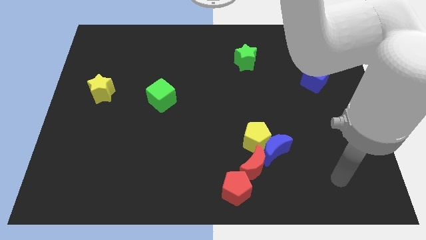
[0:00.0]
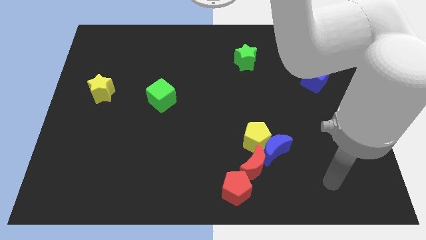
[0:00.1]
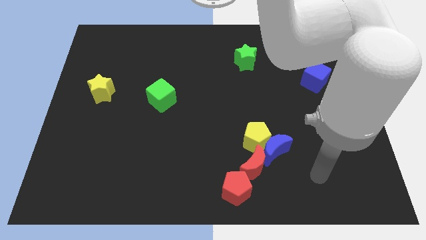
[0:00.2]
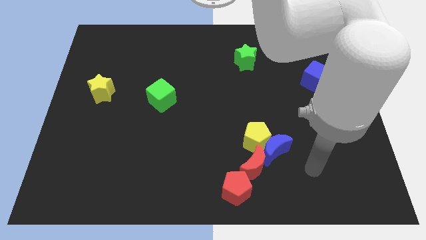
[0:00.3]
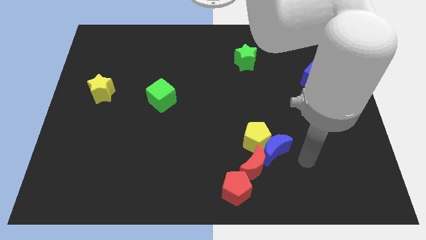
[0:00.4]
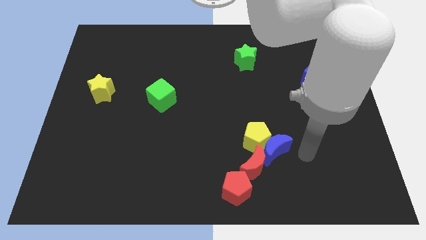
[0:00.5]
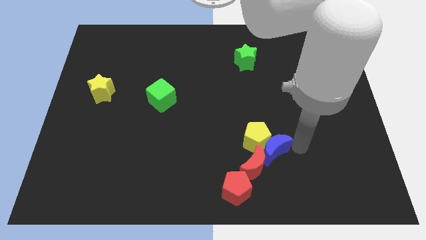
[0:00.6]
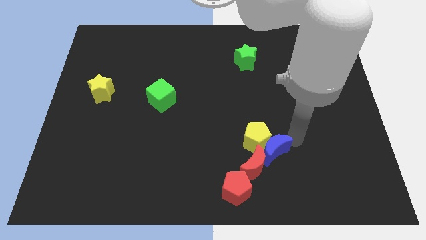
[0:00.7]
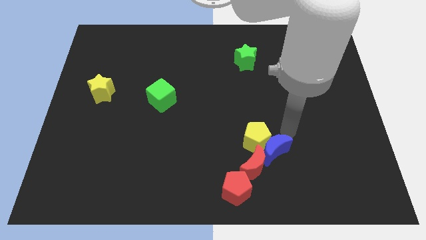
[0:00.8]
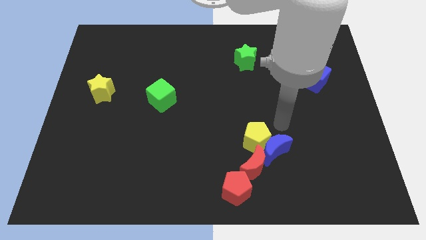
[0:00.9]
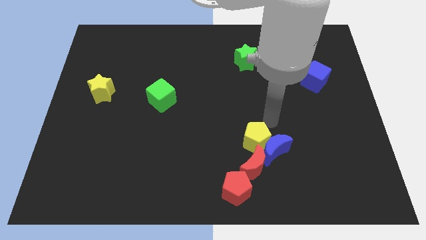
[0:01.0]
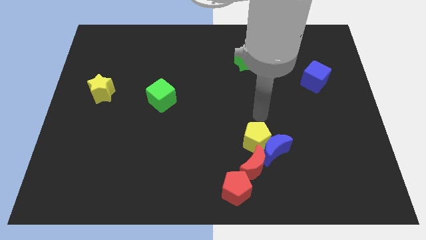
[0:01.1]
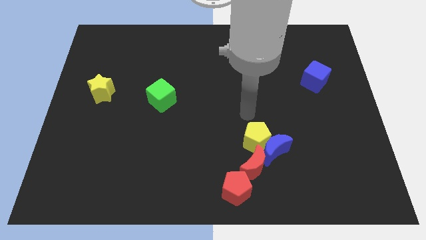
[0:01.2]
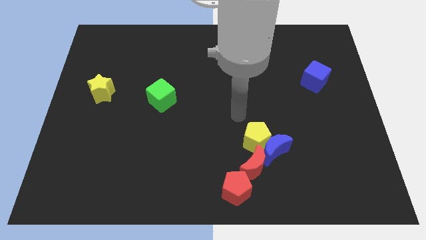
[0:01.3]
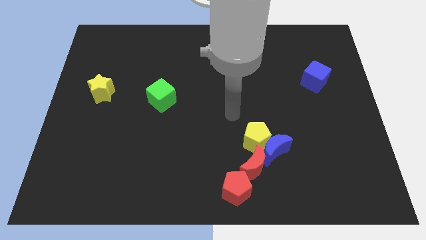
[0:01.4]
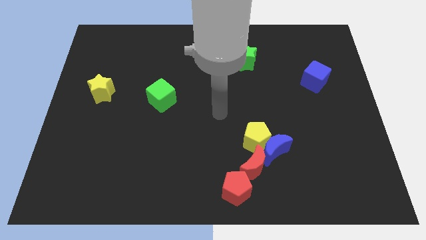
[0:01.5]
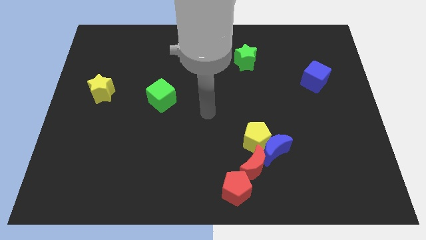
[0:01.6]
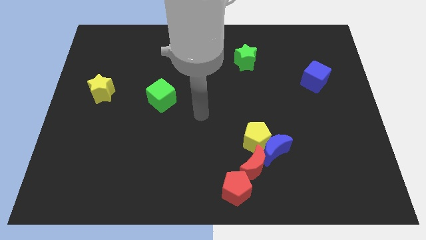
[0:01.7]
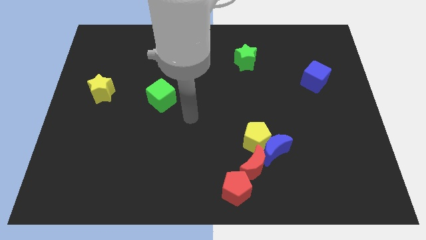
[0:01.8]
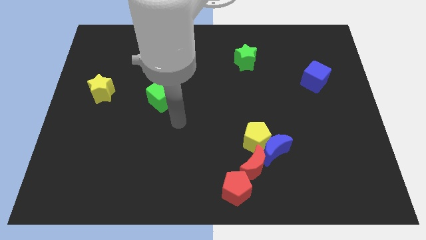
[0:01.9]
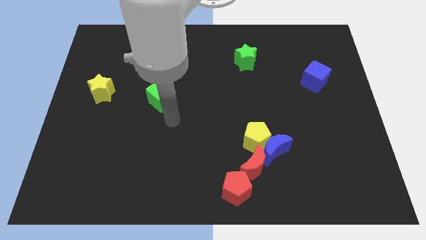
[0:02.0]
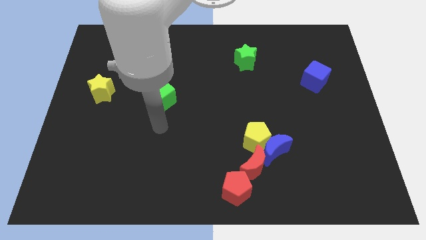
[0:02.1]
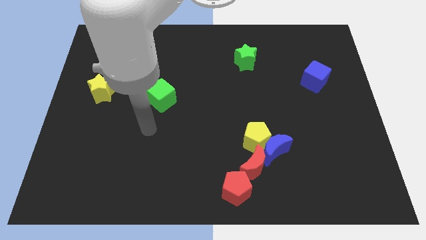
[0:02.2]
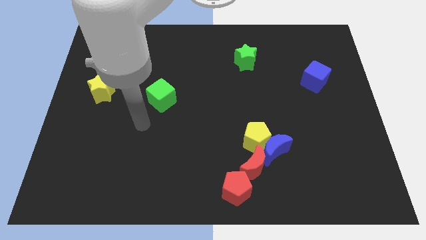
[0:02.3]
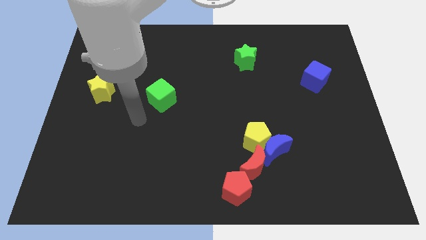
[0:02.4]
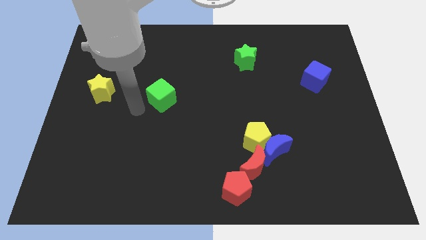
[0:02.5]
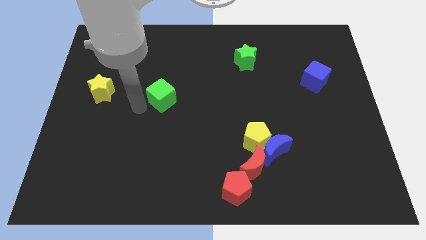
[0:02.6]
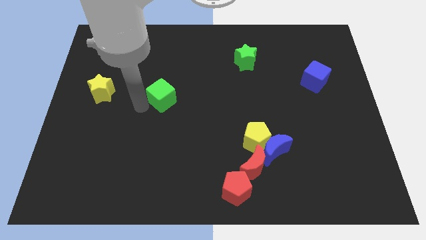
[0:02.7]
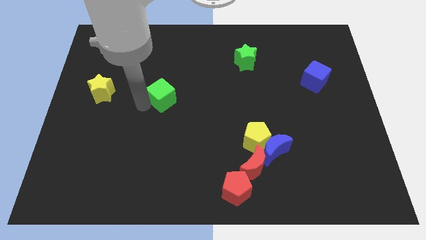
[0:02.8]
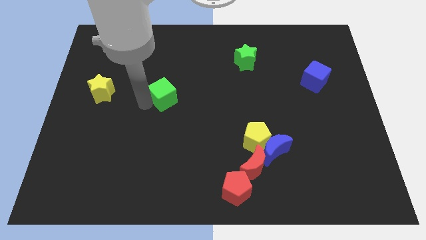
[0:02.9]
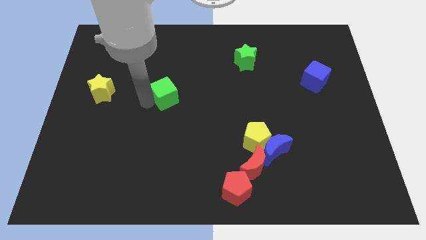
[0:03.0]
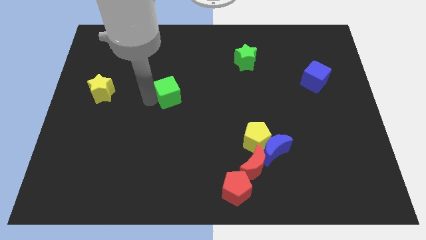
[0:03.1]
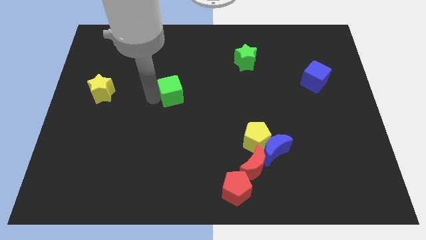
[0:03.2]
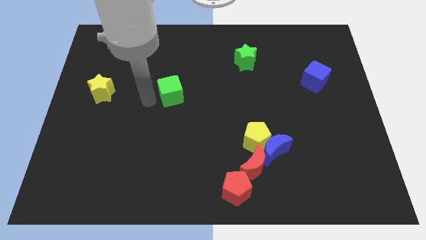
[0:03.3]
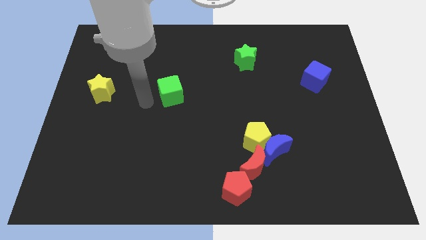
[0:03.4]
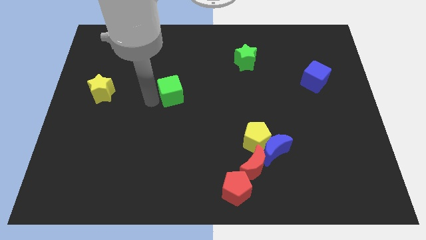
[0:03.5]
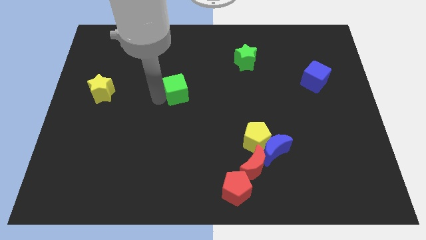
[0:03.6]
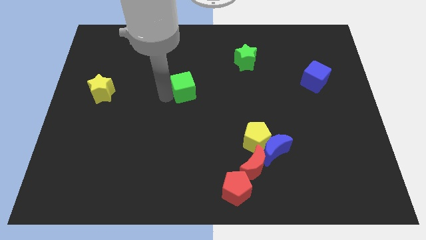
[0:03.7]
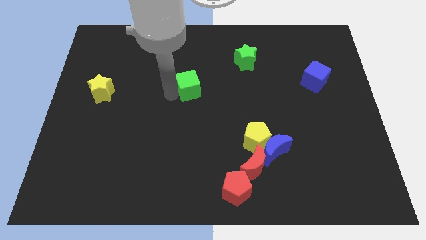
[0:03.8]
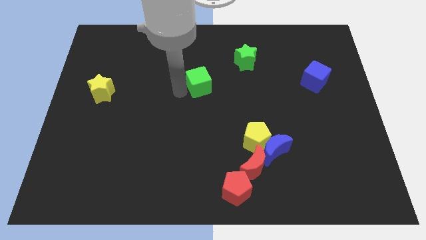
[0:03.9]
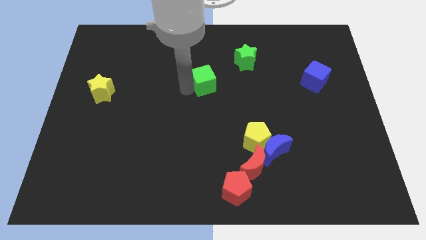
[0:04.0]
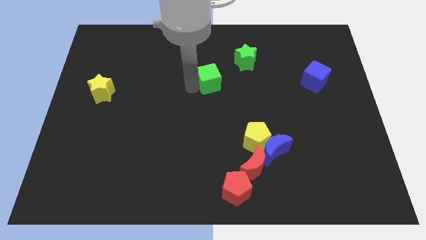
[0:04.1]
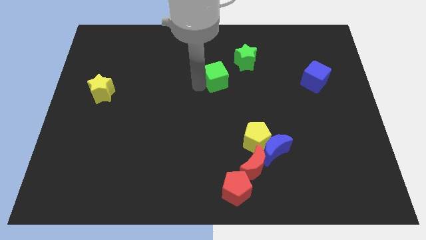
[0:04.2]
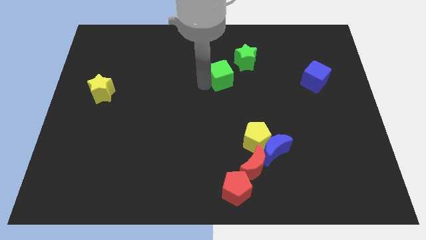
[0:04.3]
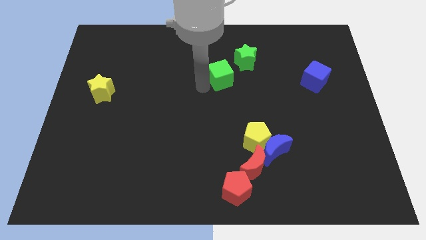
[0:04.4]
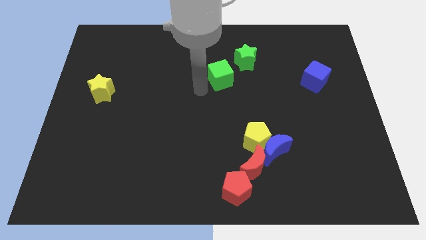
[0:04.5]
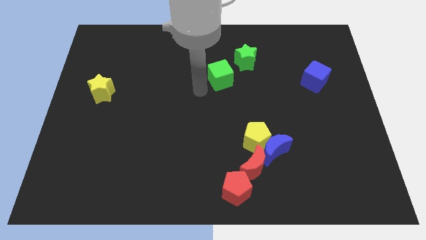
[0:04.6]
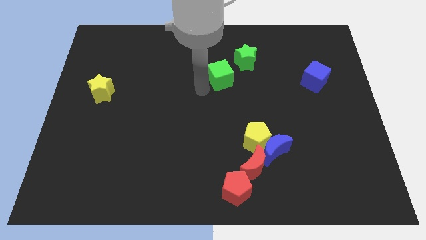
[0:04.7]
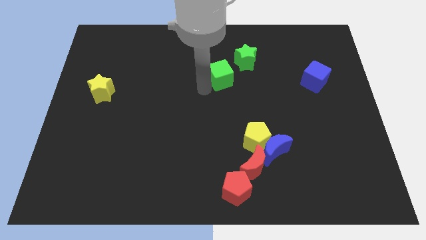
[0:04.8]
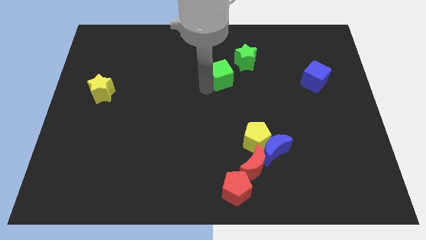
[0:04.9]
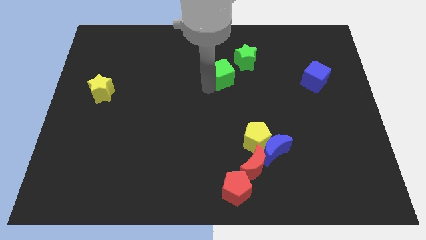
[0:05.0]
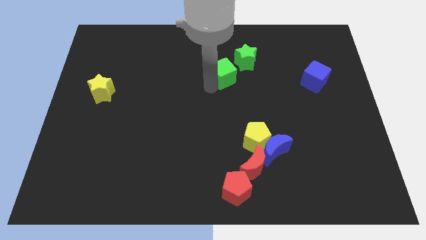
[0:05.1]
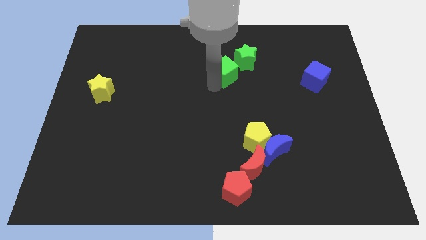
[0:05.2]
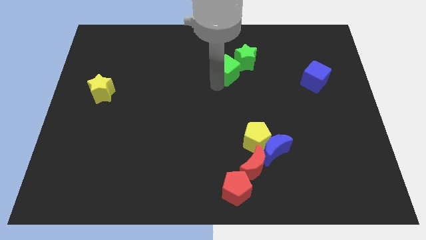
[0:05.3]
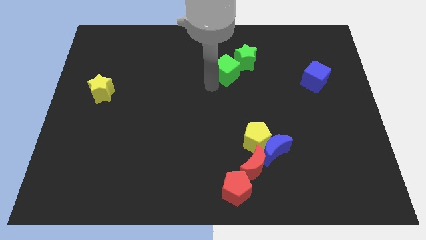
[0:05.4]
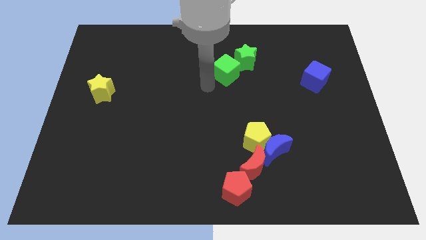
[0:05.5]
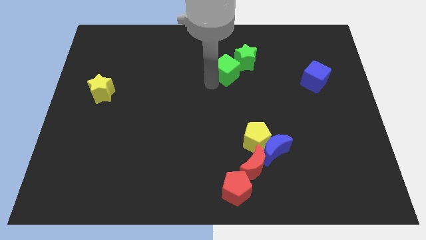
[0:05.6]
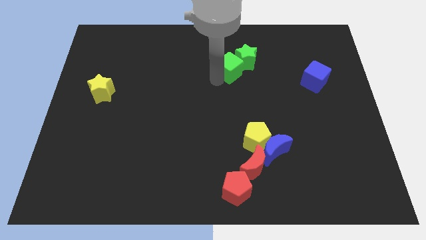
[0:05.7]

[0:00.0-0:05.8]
put the green cube towards the green star

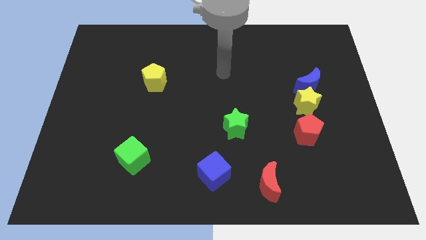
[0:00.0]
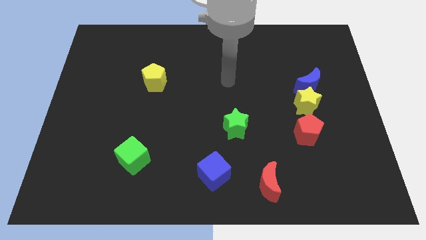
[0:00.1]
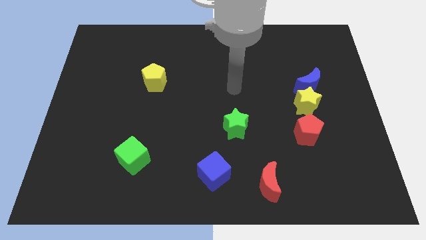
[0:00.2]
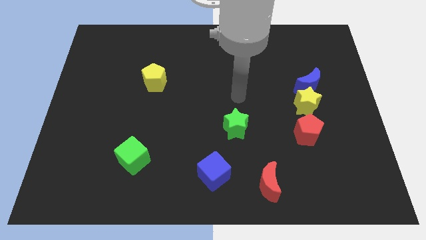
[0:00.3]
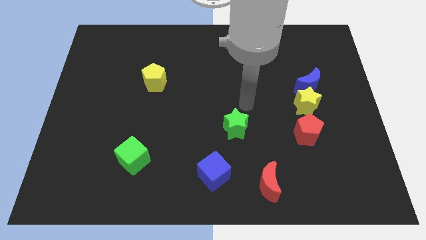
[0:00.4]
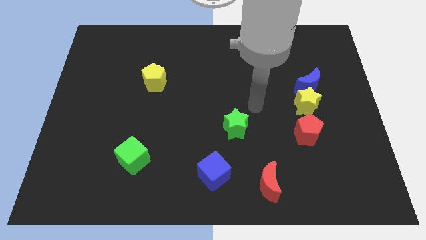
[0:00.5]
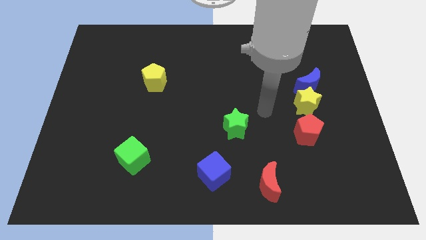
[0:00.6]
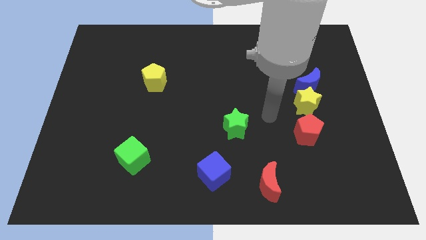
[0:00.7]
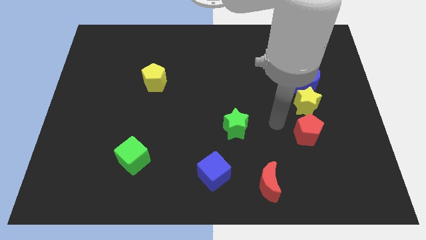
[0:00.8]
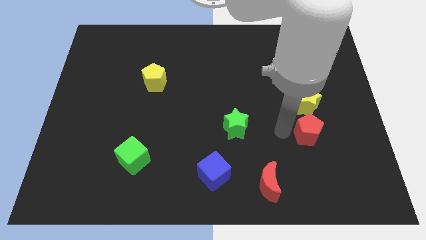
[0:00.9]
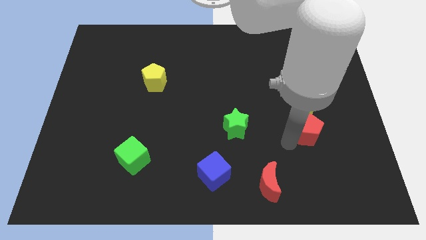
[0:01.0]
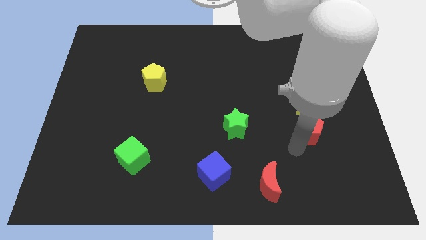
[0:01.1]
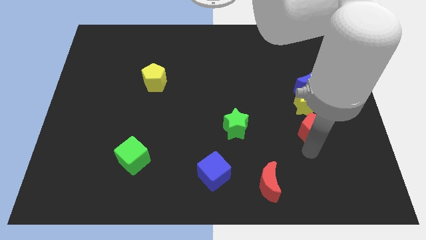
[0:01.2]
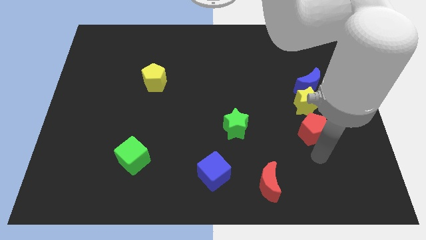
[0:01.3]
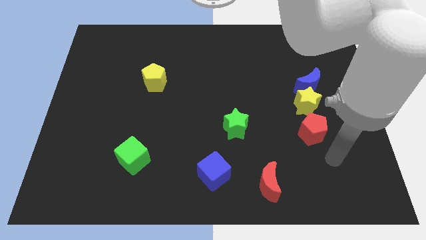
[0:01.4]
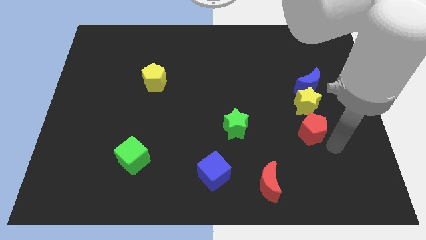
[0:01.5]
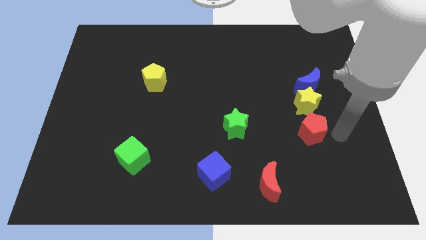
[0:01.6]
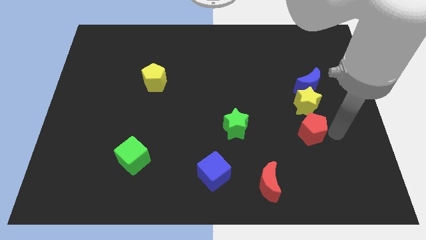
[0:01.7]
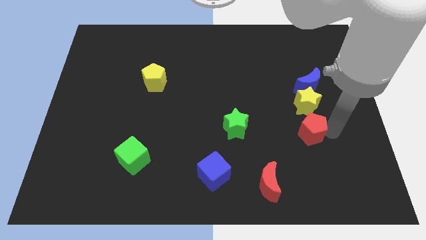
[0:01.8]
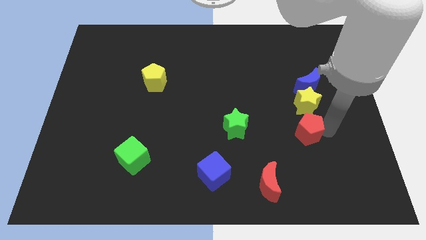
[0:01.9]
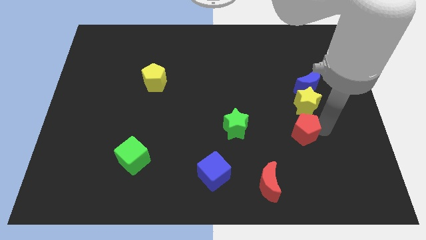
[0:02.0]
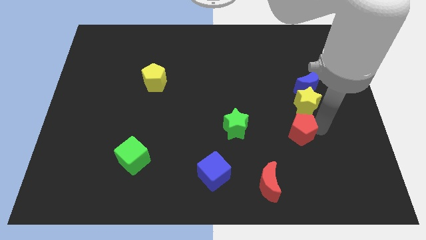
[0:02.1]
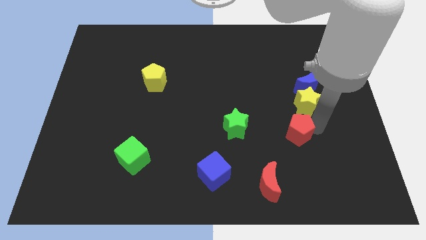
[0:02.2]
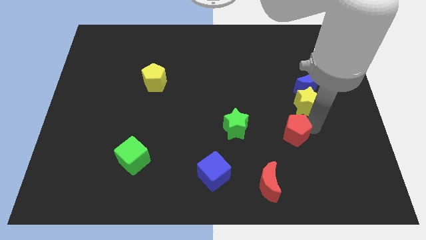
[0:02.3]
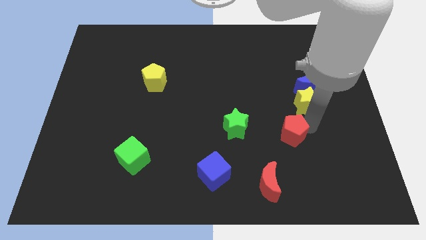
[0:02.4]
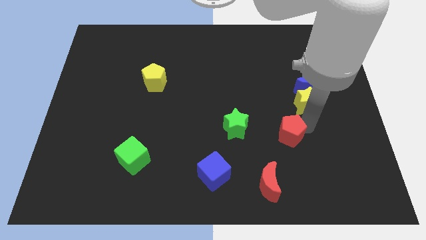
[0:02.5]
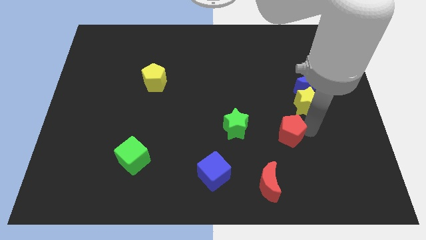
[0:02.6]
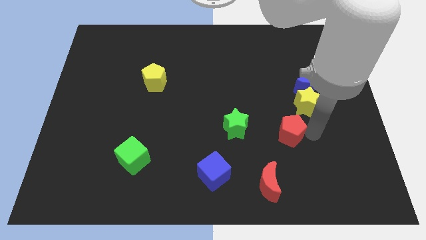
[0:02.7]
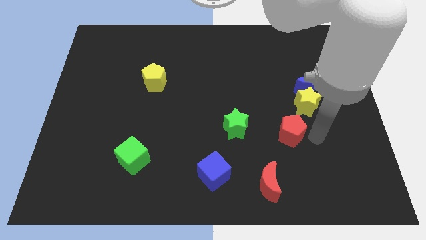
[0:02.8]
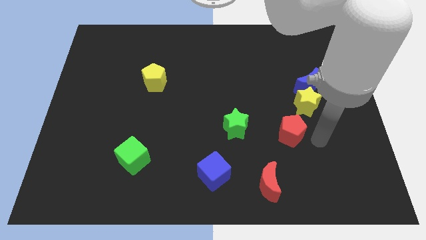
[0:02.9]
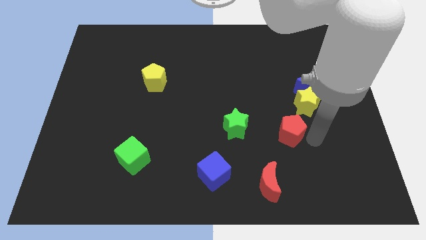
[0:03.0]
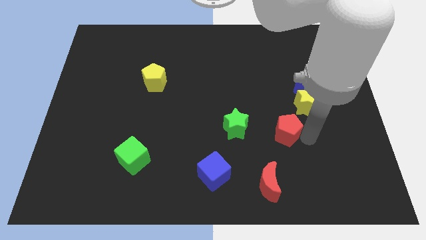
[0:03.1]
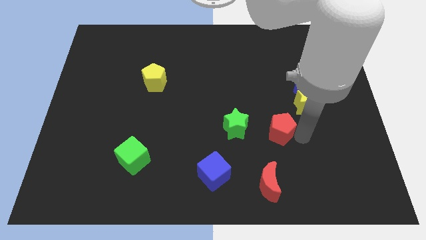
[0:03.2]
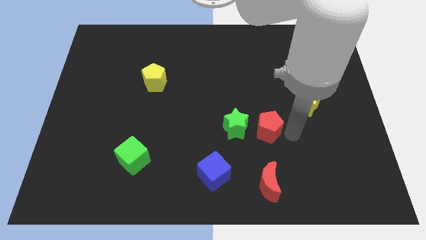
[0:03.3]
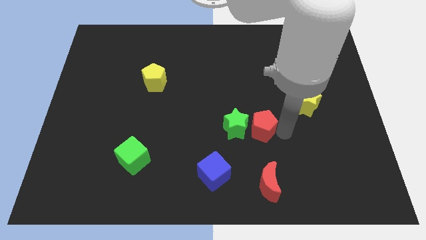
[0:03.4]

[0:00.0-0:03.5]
slide the red pentagon close to the green star
